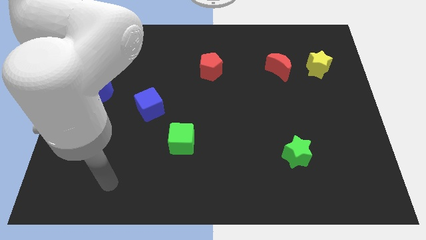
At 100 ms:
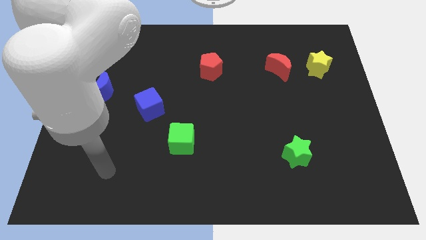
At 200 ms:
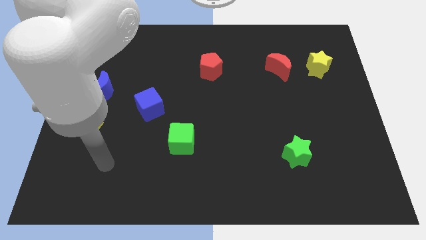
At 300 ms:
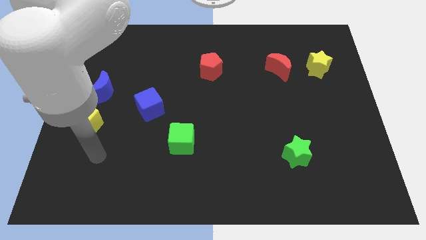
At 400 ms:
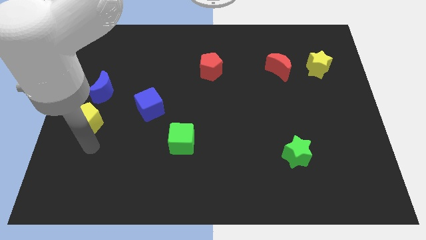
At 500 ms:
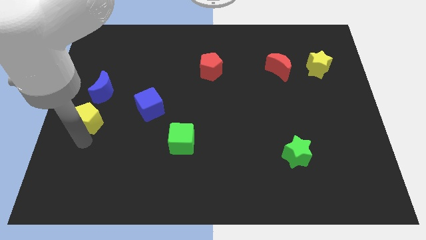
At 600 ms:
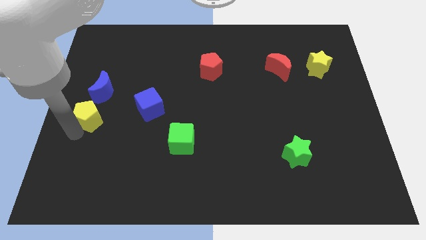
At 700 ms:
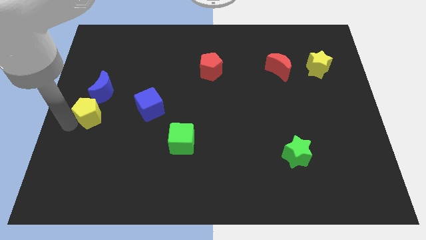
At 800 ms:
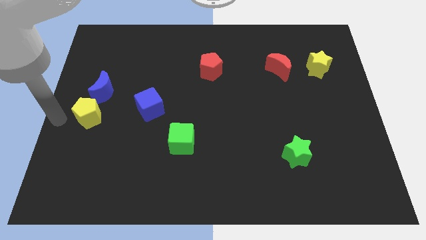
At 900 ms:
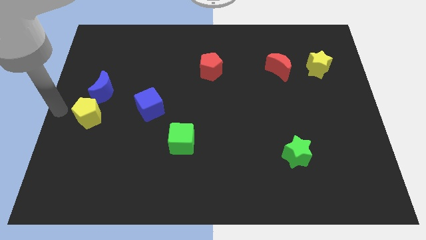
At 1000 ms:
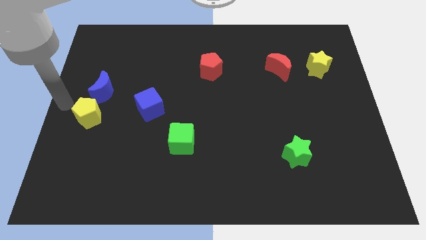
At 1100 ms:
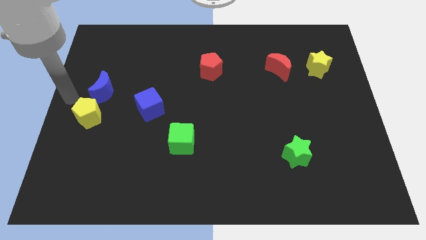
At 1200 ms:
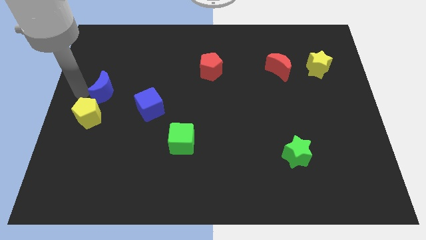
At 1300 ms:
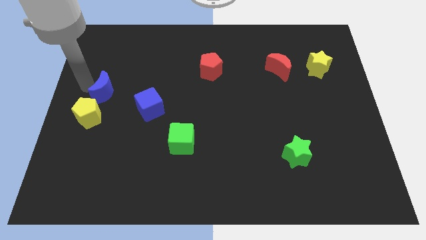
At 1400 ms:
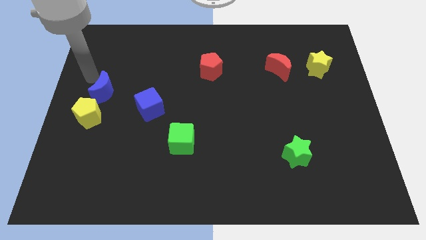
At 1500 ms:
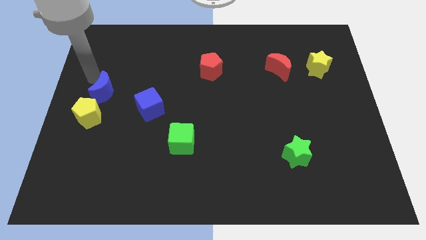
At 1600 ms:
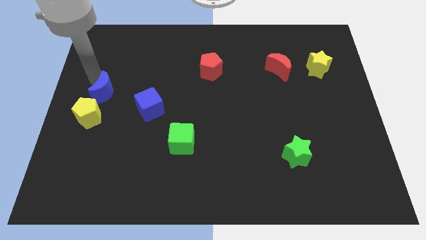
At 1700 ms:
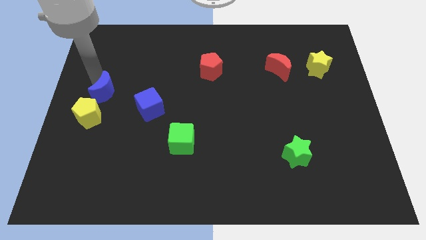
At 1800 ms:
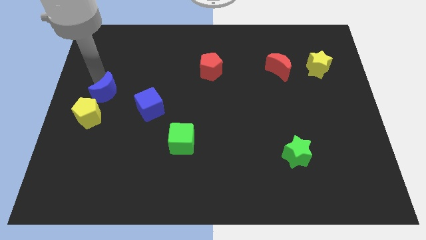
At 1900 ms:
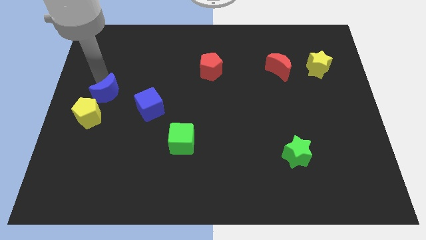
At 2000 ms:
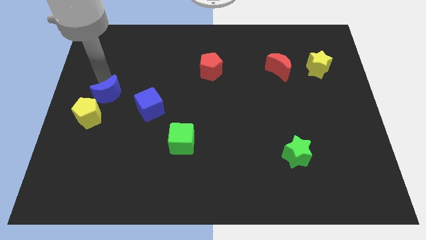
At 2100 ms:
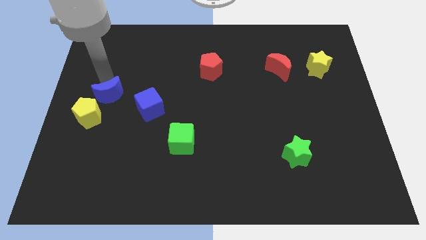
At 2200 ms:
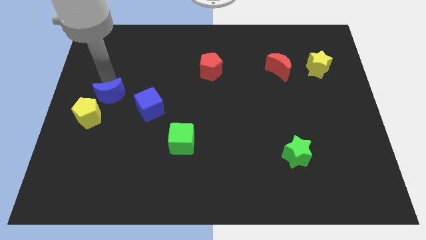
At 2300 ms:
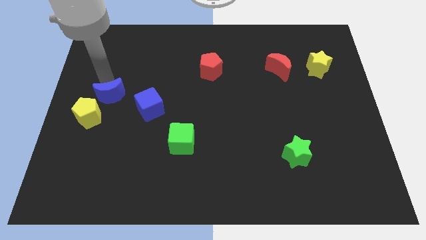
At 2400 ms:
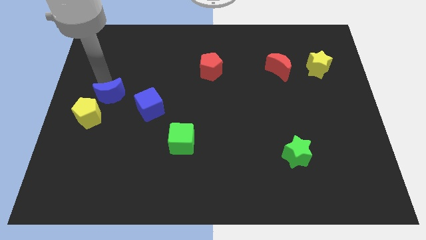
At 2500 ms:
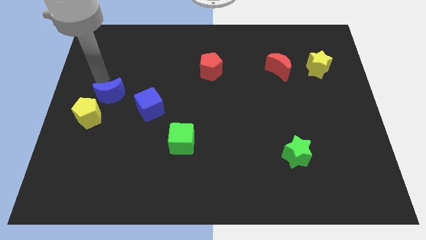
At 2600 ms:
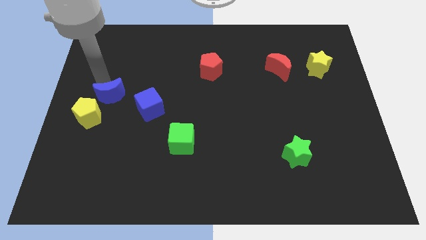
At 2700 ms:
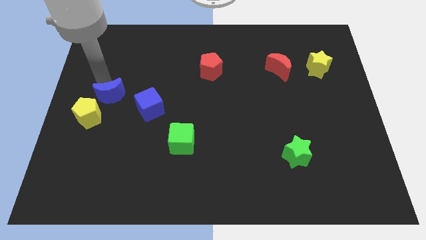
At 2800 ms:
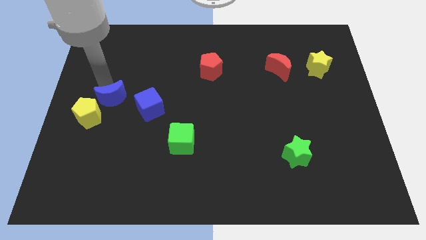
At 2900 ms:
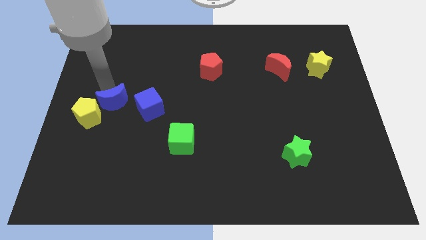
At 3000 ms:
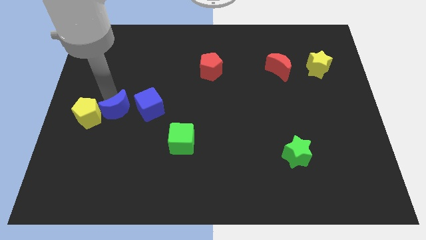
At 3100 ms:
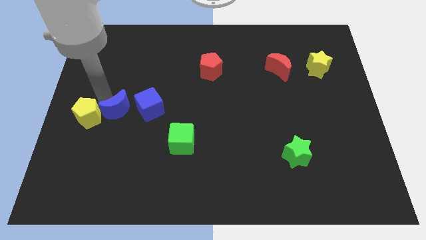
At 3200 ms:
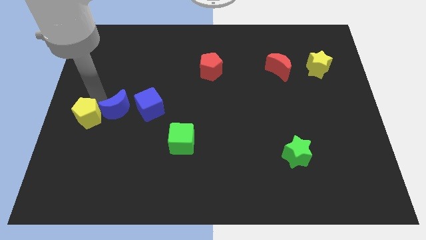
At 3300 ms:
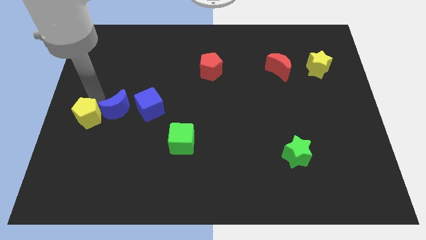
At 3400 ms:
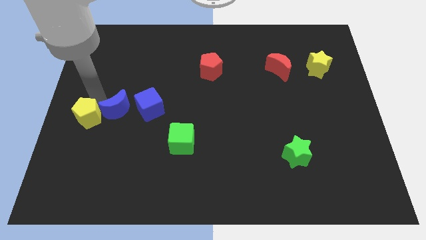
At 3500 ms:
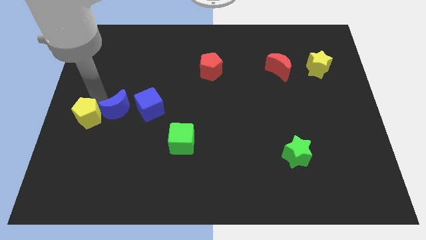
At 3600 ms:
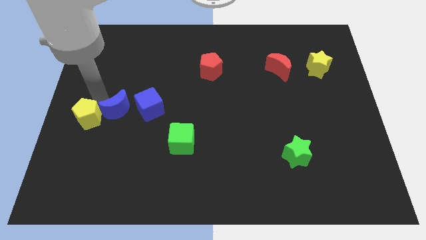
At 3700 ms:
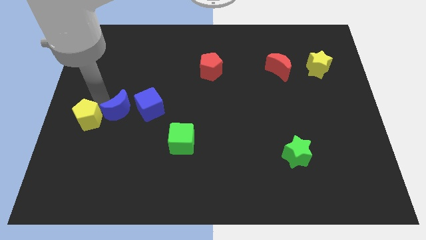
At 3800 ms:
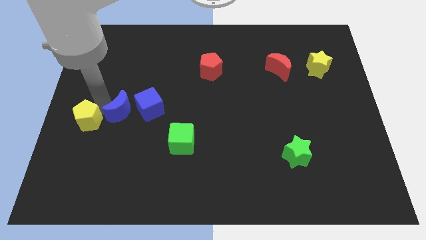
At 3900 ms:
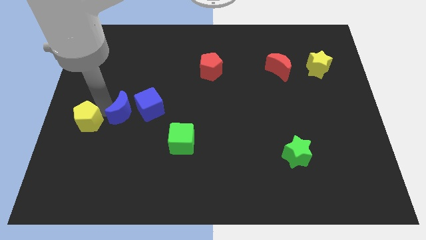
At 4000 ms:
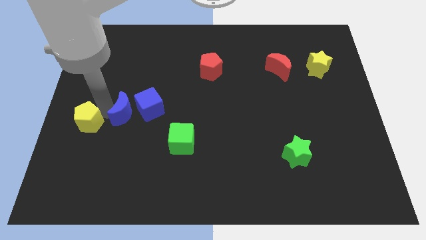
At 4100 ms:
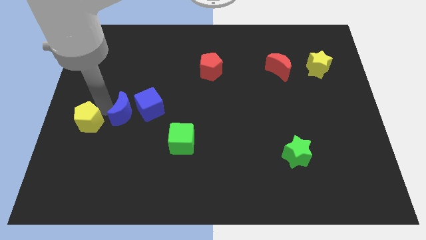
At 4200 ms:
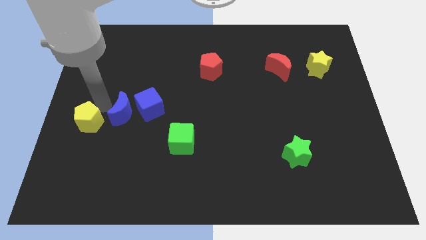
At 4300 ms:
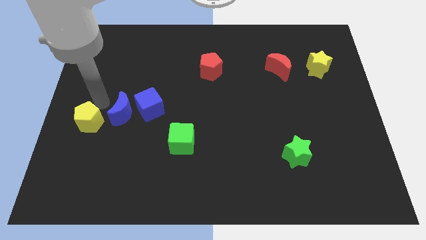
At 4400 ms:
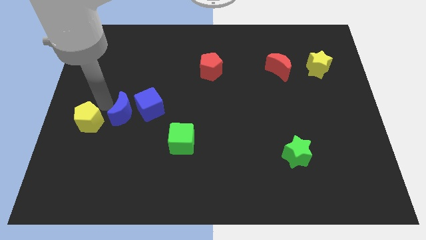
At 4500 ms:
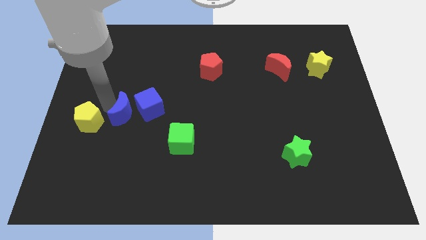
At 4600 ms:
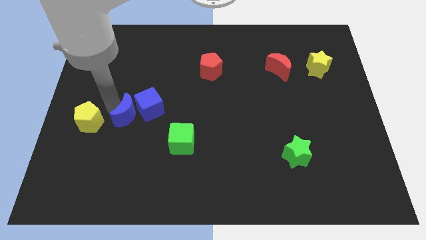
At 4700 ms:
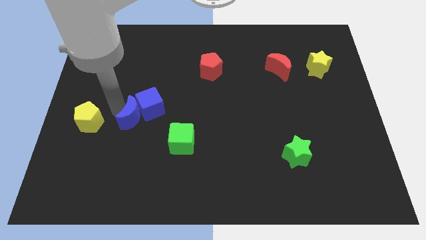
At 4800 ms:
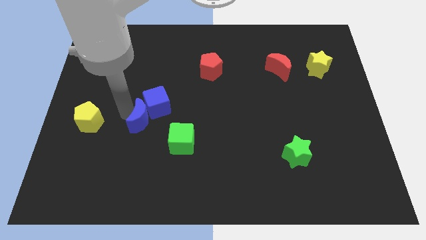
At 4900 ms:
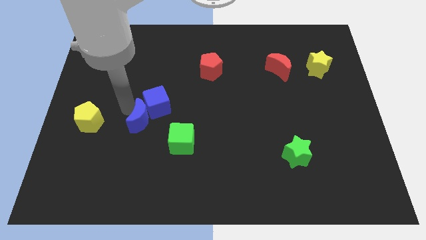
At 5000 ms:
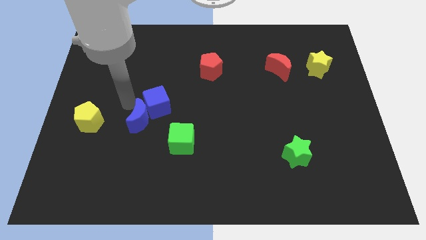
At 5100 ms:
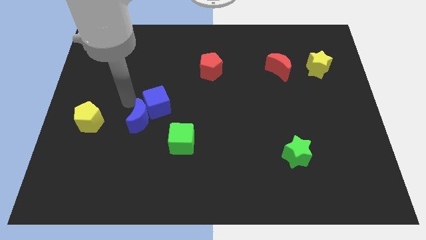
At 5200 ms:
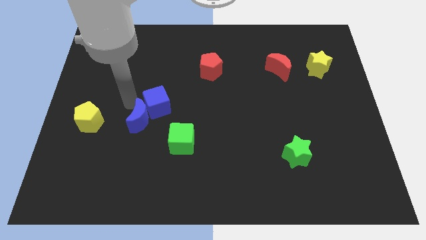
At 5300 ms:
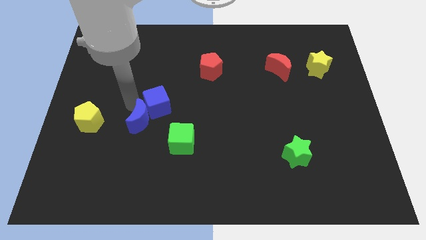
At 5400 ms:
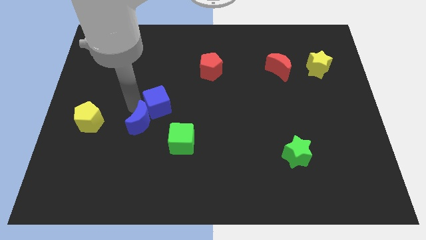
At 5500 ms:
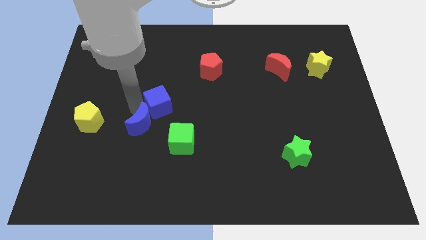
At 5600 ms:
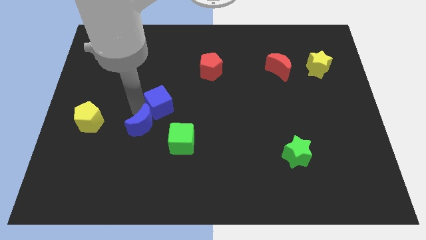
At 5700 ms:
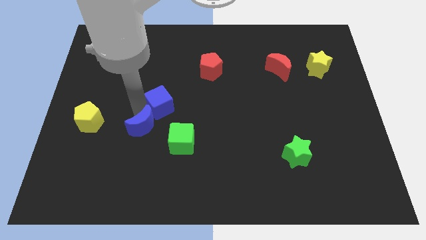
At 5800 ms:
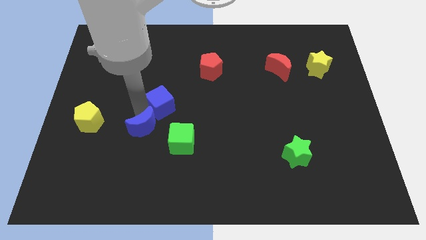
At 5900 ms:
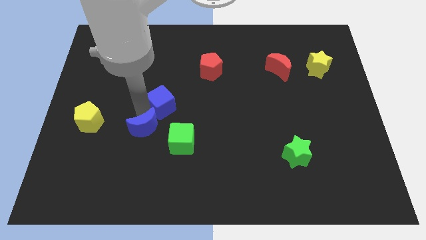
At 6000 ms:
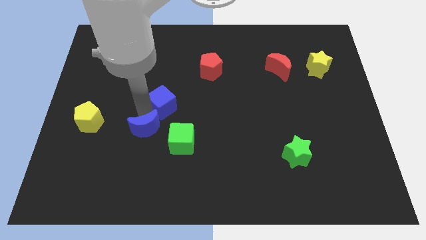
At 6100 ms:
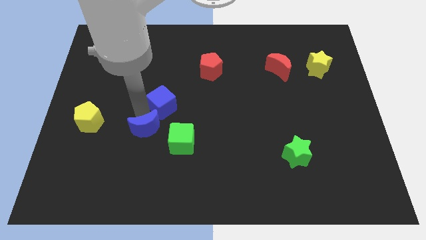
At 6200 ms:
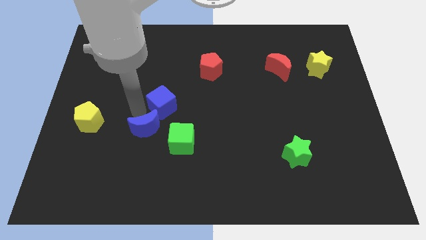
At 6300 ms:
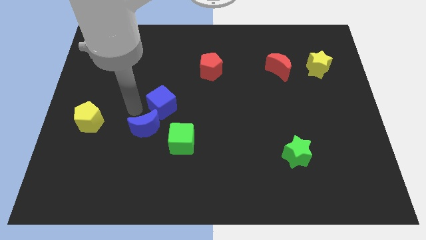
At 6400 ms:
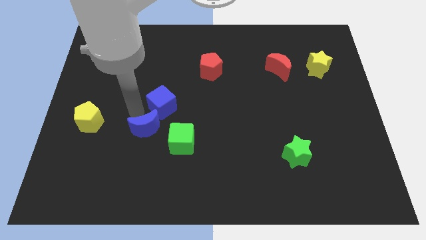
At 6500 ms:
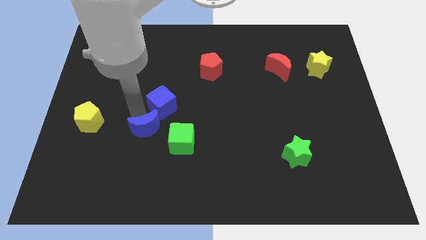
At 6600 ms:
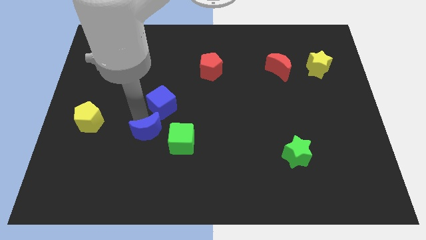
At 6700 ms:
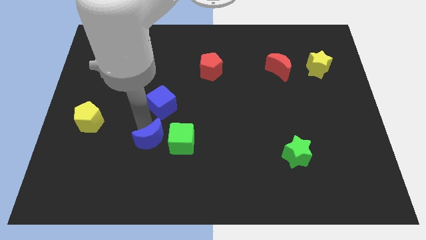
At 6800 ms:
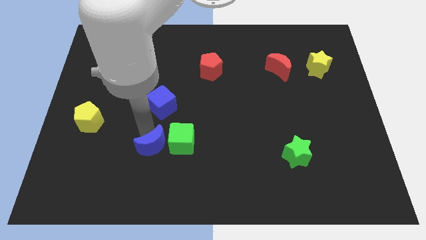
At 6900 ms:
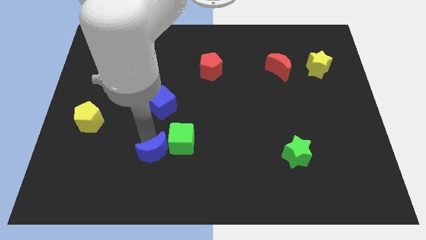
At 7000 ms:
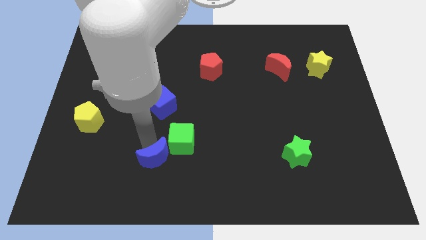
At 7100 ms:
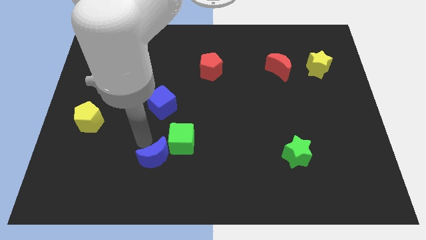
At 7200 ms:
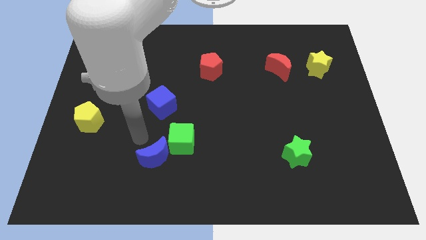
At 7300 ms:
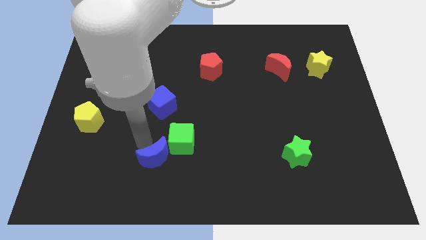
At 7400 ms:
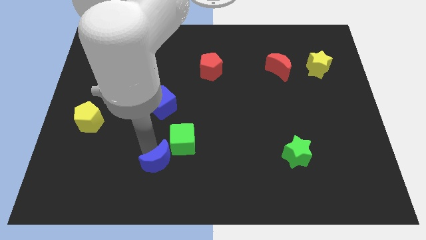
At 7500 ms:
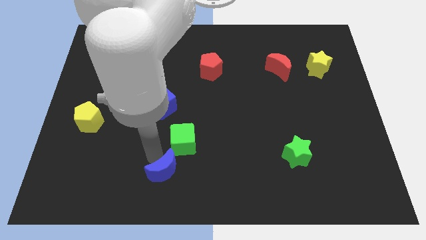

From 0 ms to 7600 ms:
move the blue moon to the bottom
